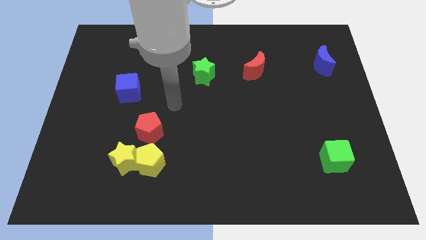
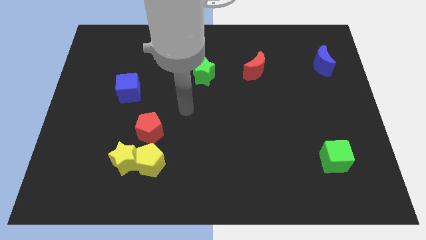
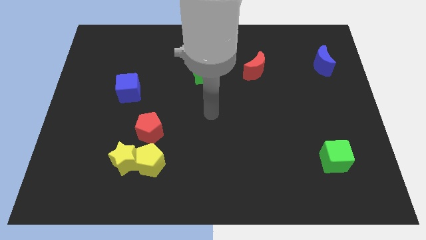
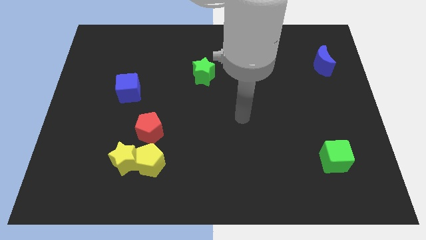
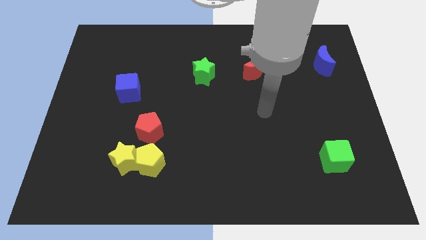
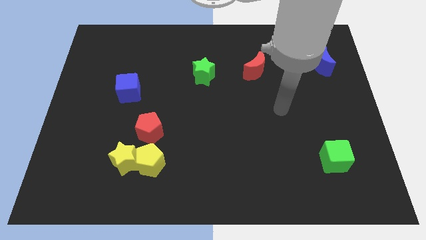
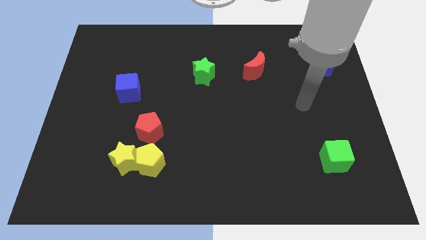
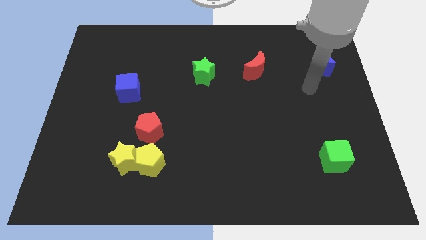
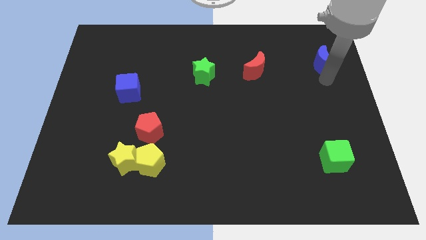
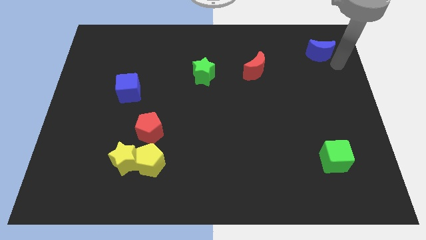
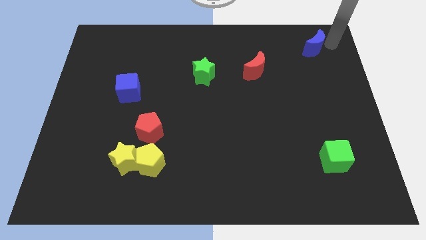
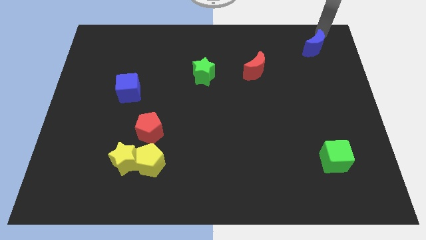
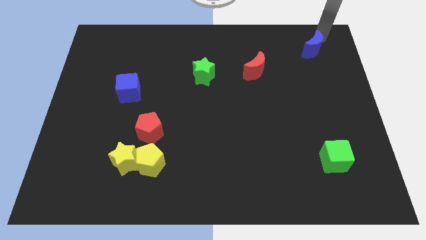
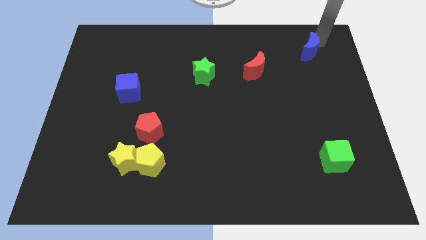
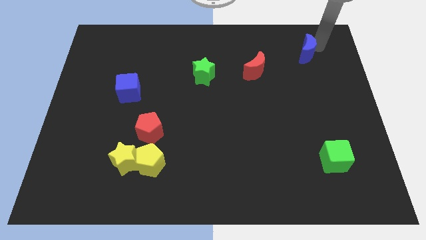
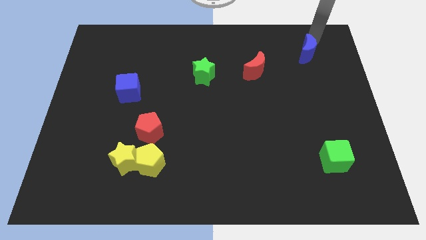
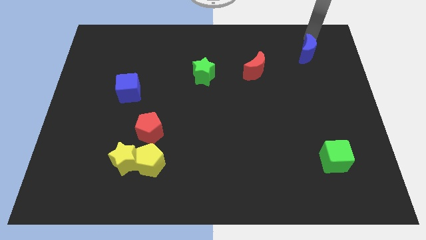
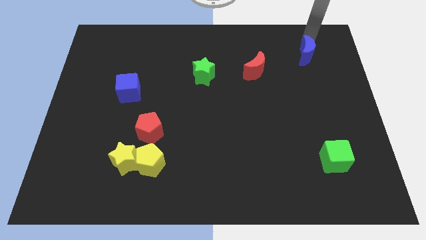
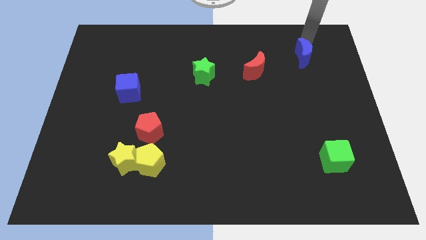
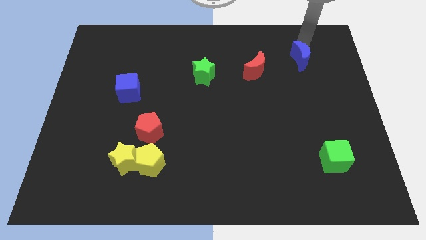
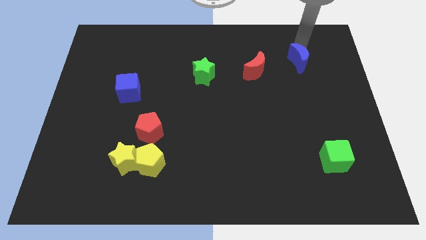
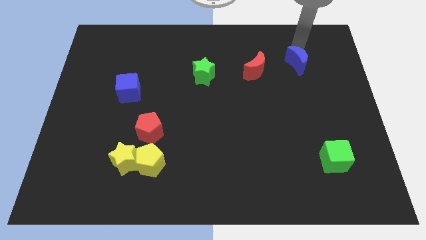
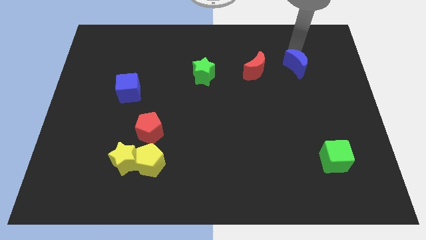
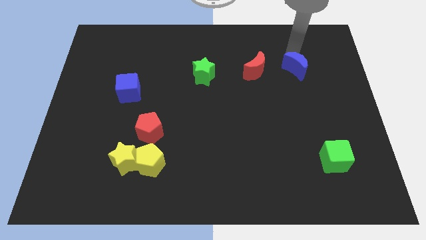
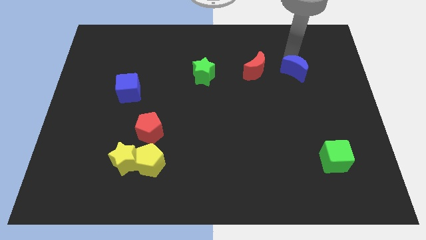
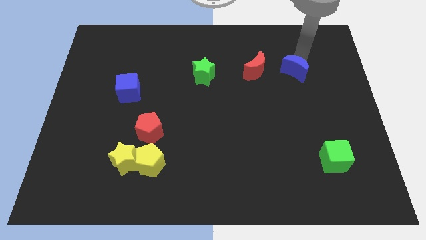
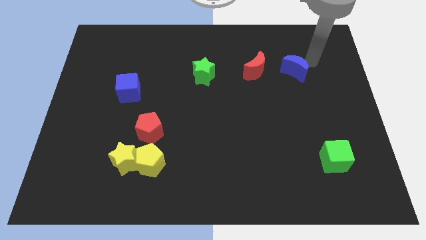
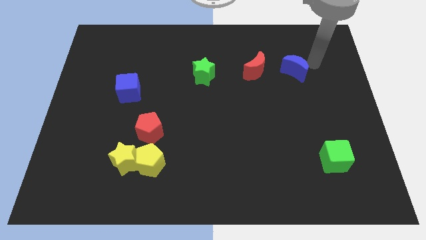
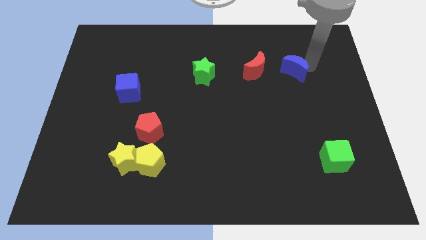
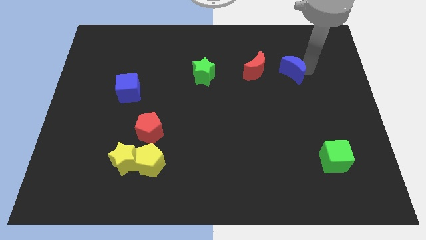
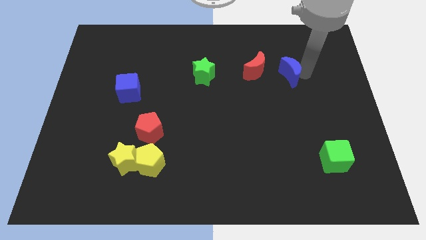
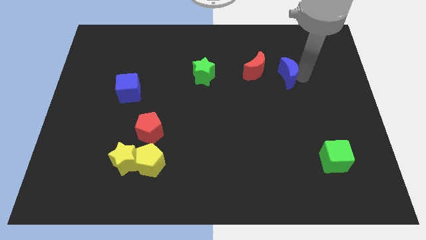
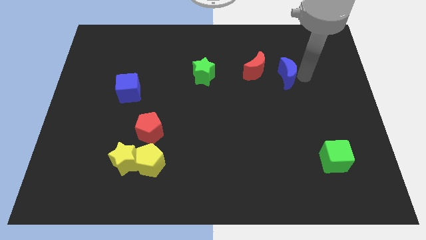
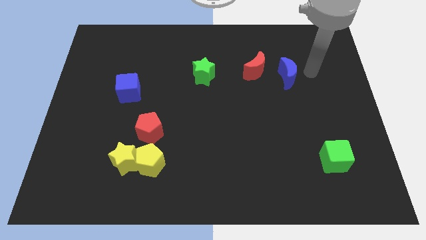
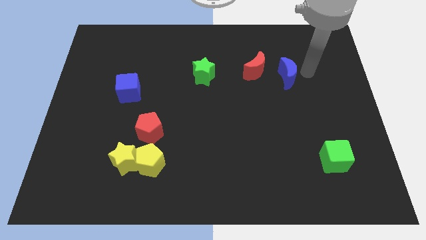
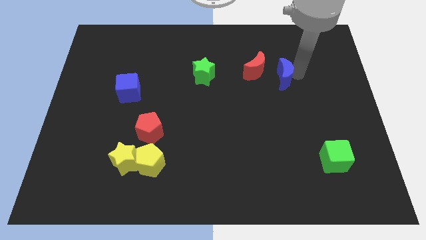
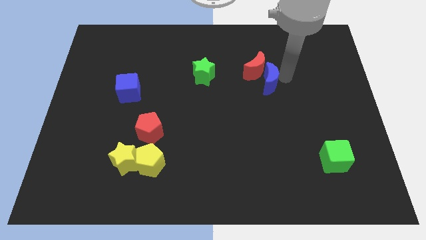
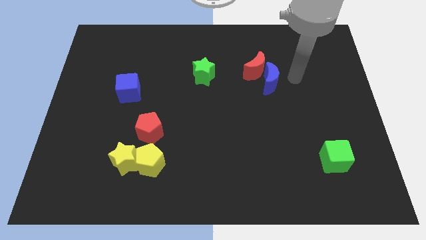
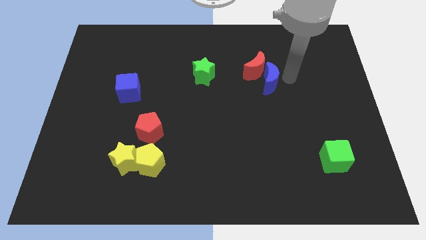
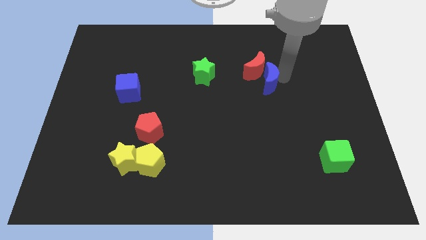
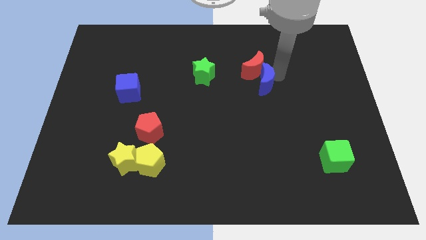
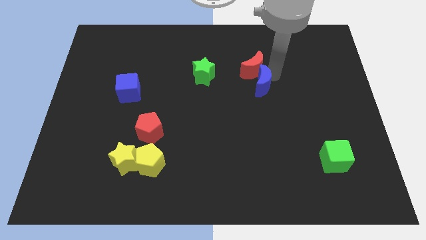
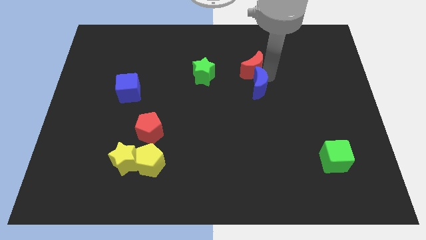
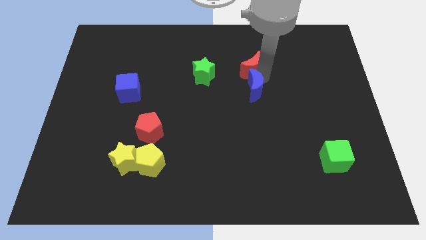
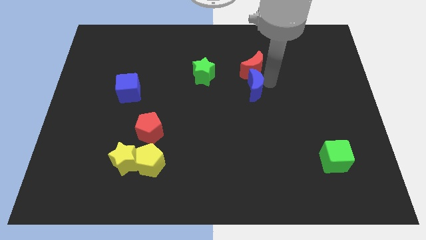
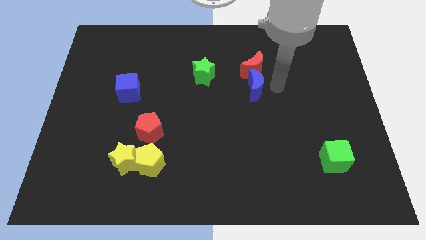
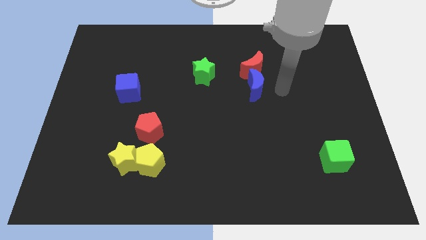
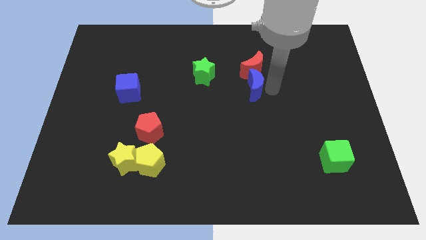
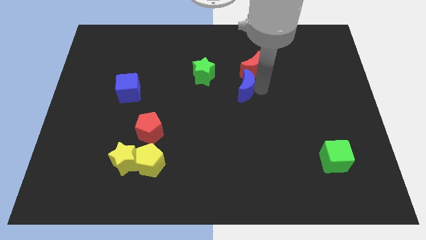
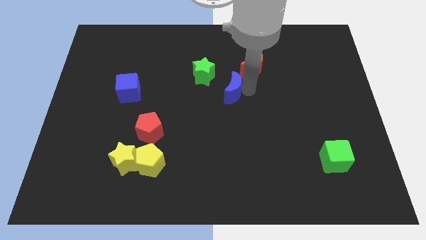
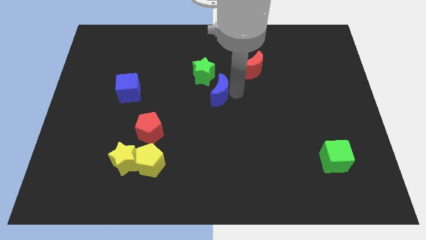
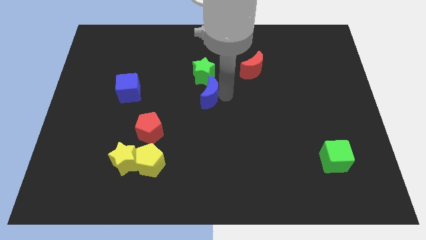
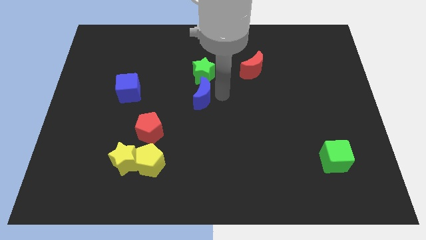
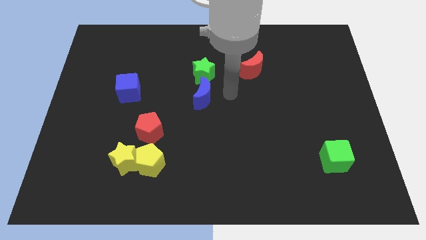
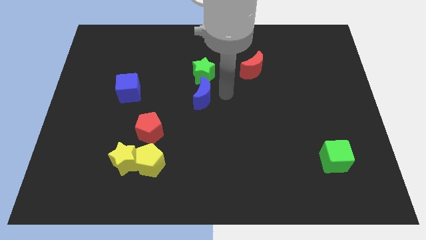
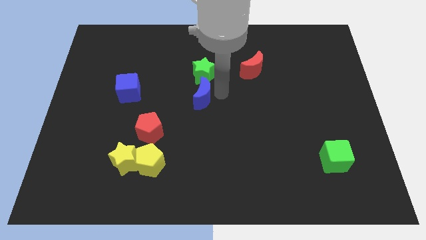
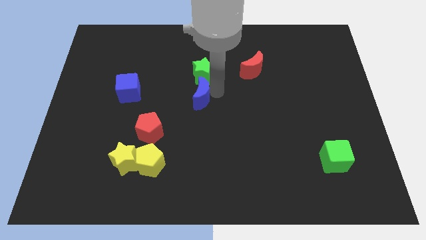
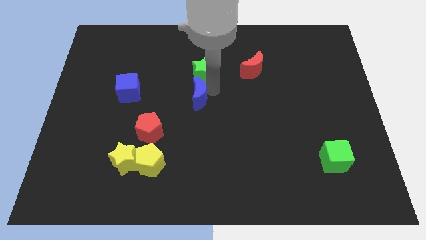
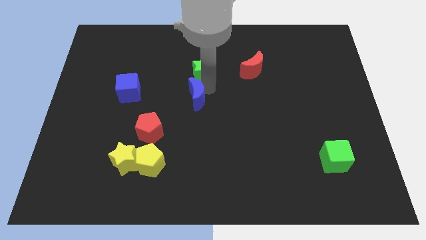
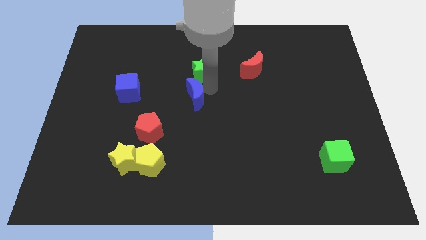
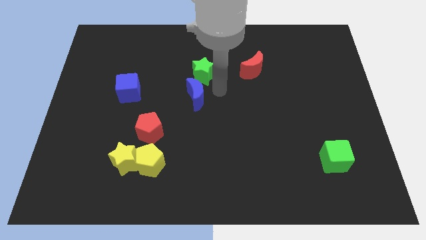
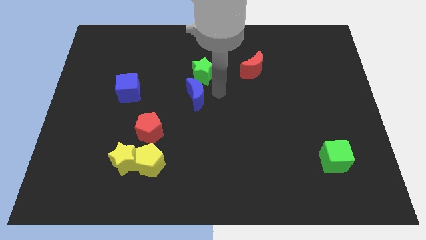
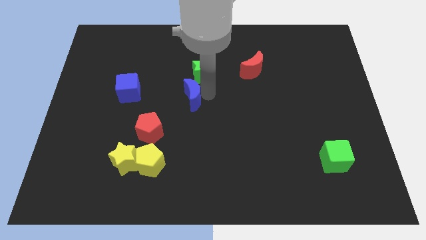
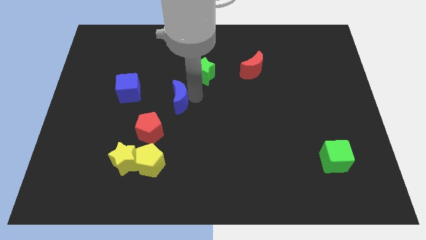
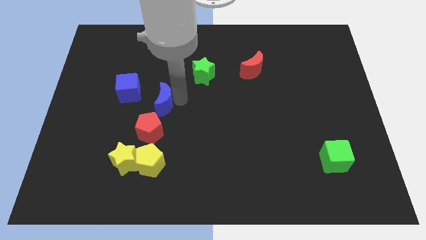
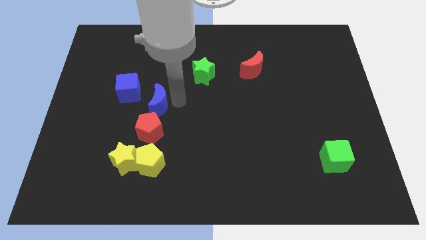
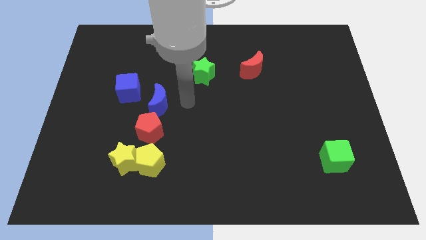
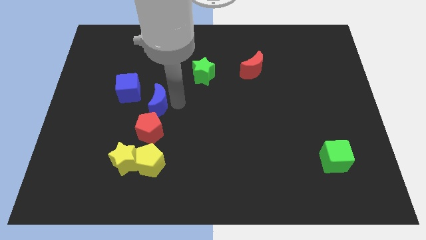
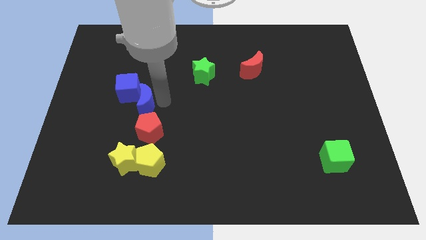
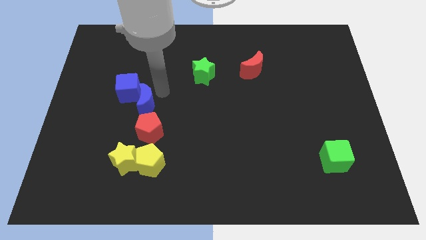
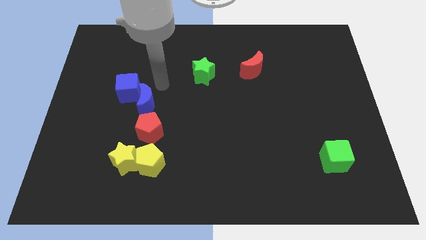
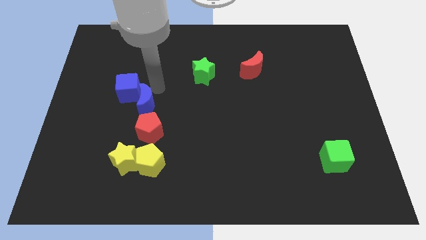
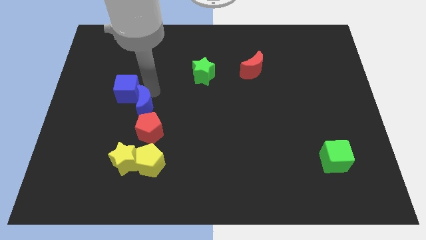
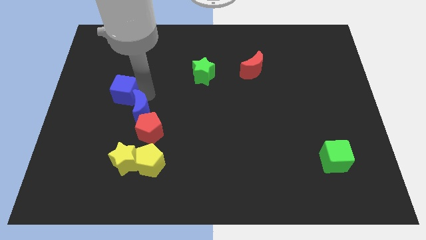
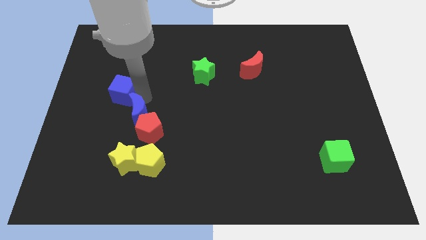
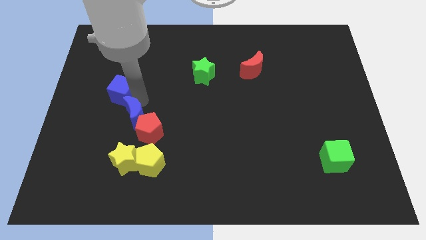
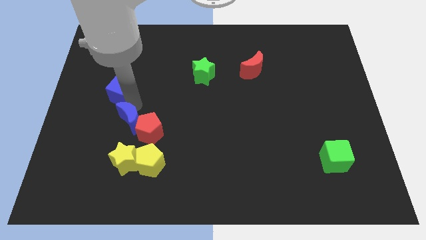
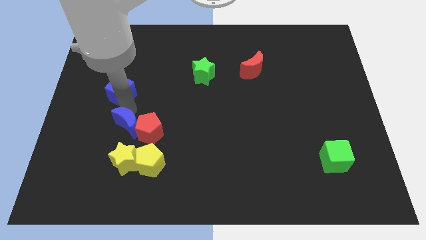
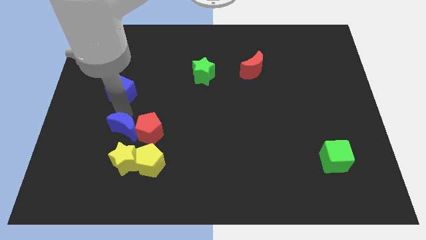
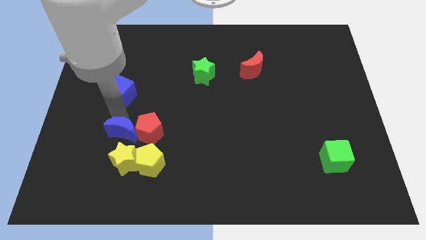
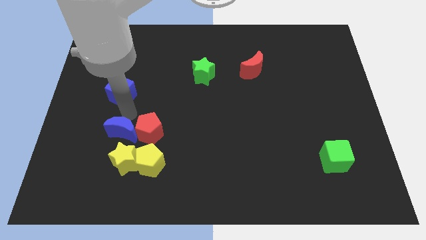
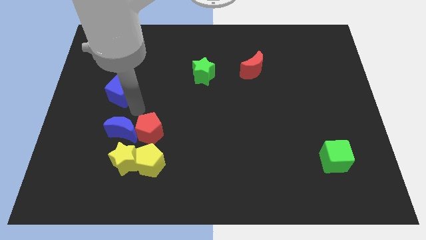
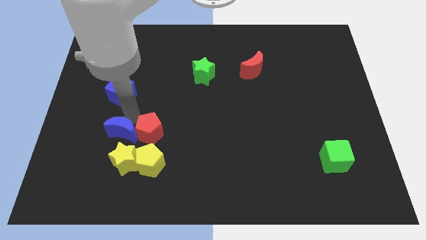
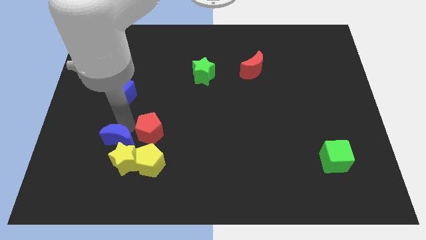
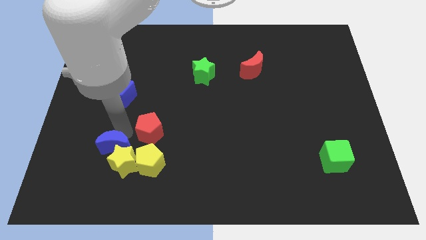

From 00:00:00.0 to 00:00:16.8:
push the blue moon to the left side of the yellow pentagon
